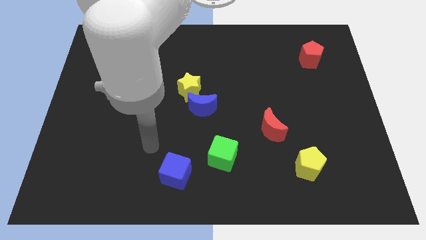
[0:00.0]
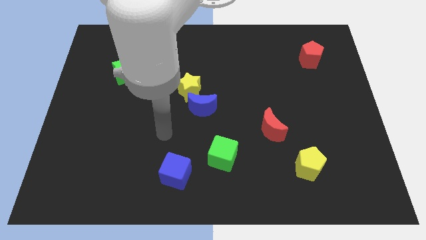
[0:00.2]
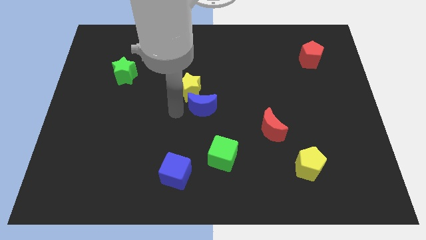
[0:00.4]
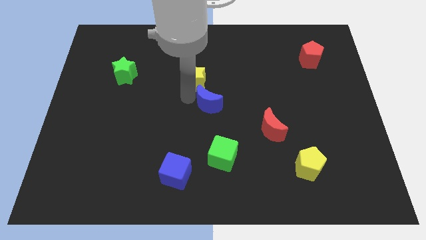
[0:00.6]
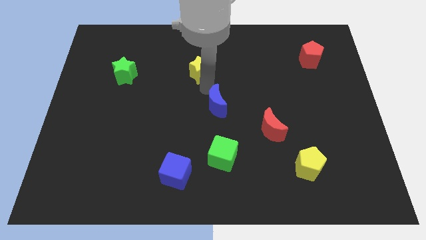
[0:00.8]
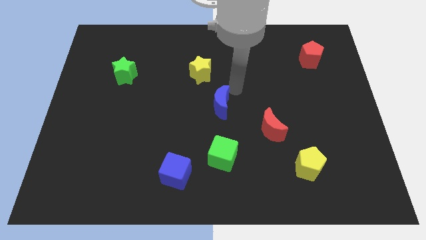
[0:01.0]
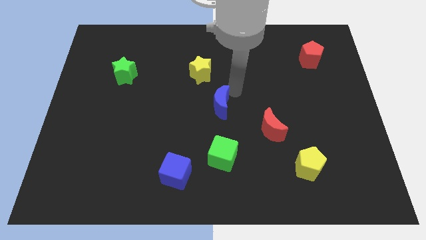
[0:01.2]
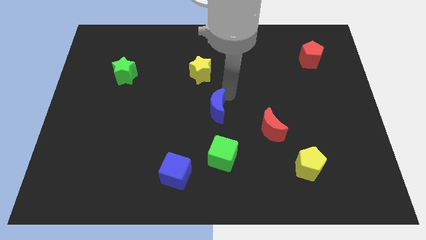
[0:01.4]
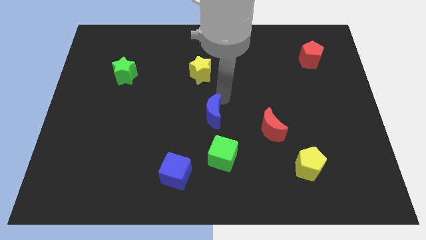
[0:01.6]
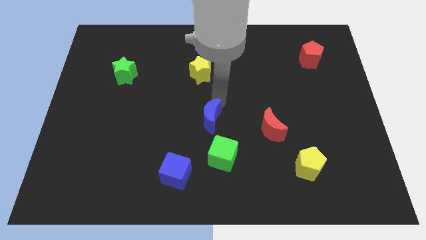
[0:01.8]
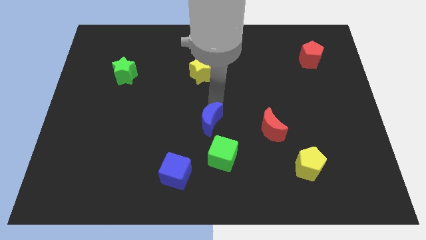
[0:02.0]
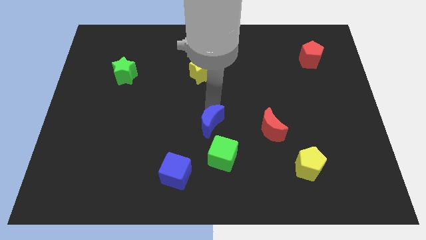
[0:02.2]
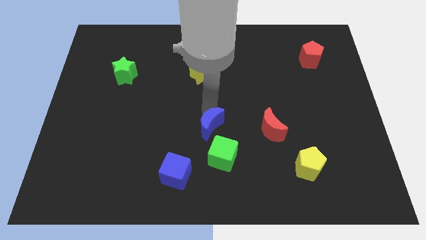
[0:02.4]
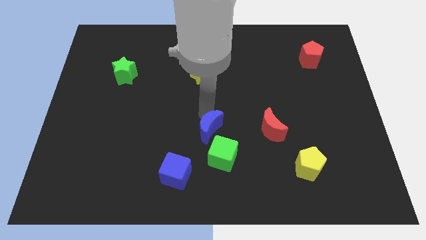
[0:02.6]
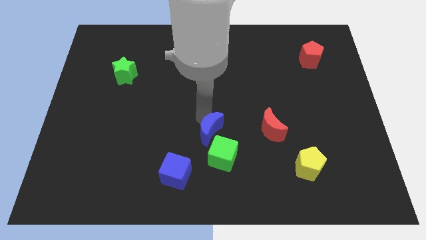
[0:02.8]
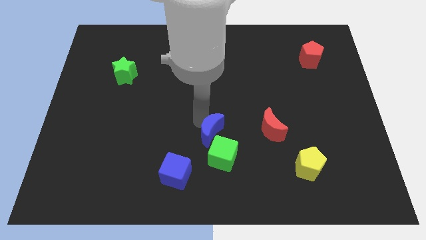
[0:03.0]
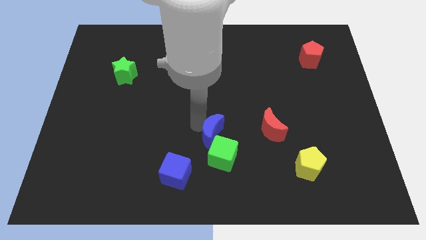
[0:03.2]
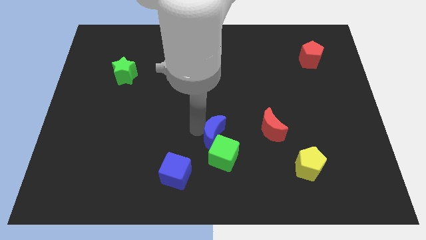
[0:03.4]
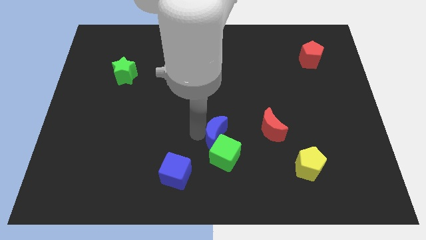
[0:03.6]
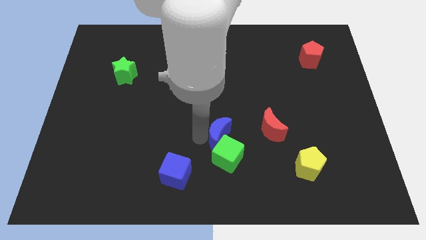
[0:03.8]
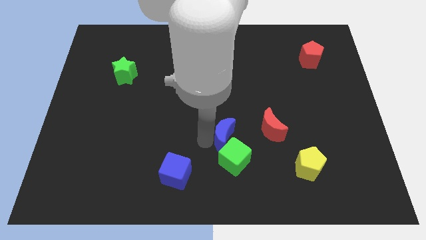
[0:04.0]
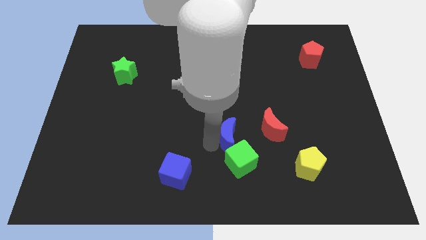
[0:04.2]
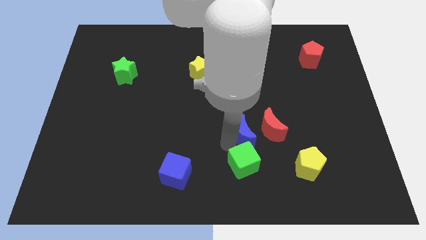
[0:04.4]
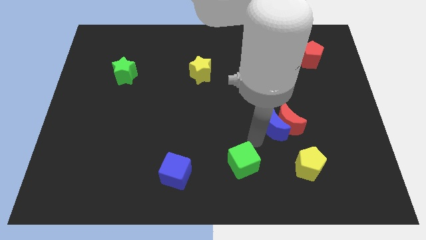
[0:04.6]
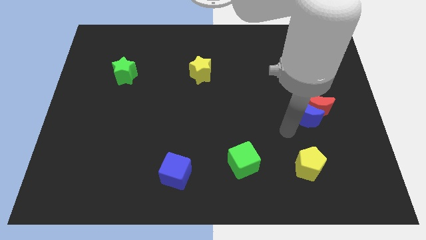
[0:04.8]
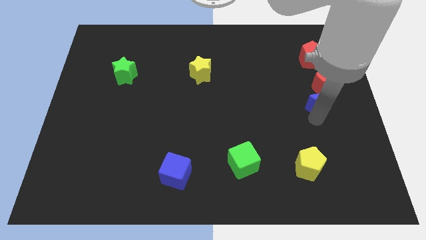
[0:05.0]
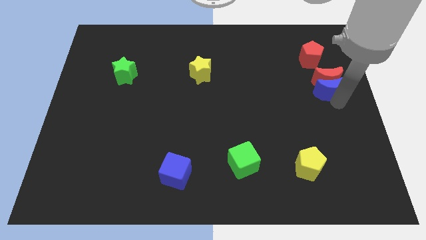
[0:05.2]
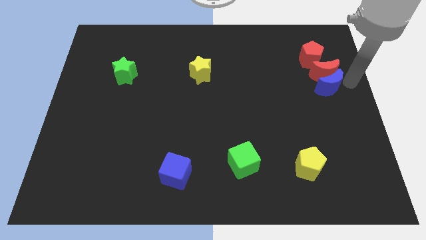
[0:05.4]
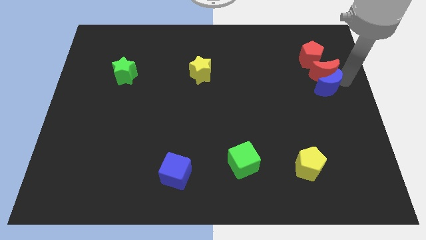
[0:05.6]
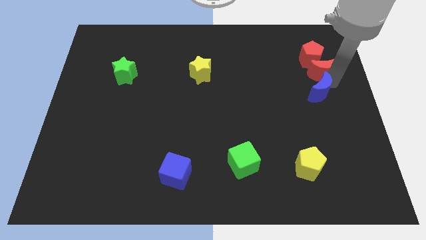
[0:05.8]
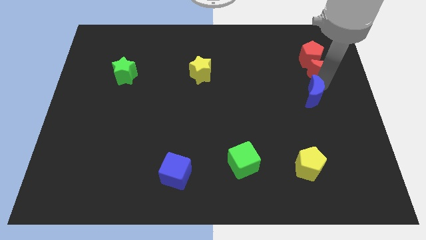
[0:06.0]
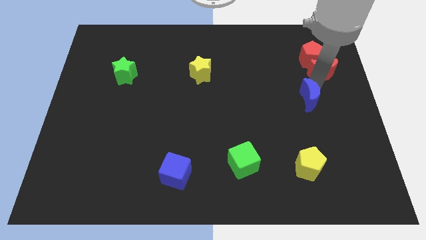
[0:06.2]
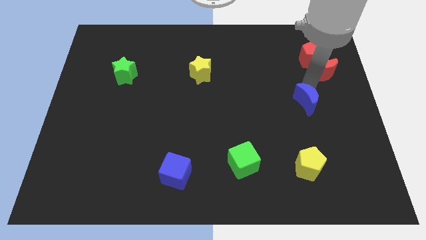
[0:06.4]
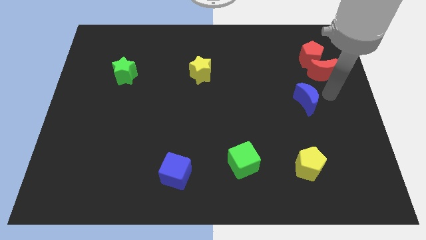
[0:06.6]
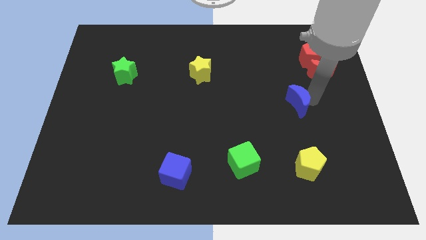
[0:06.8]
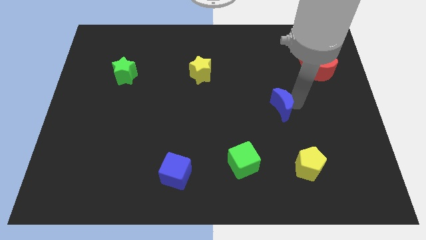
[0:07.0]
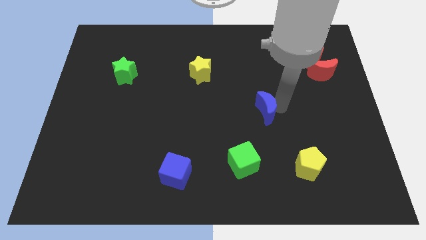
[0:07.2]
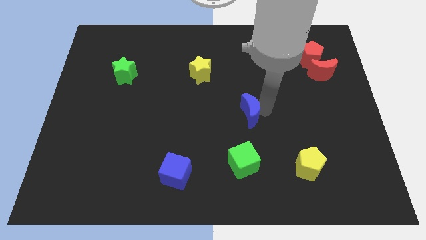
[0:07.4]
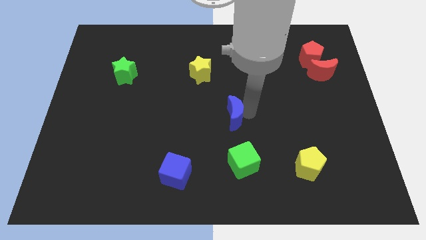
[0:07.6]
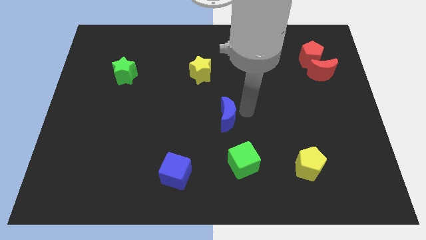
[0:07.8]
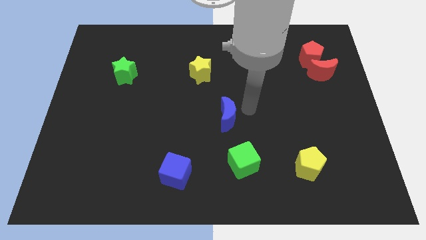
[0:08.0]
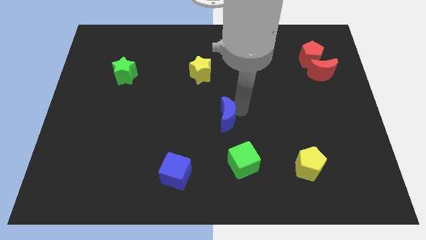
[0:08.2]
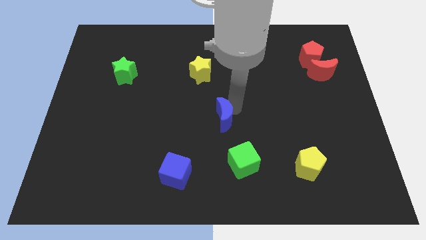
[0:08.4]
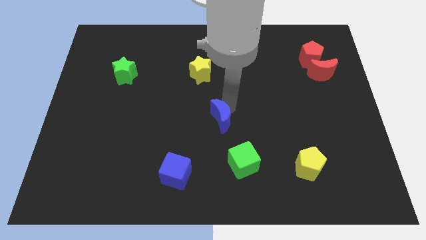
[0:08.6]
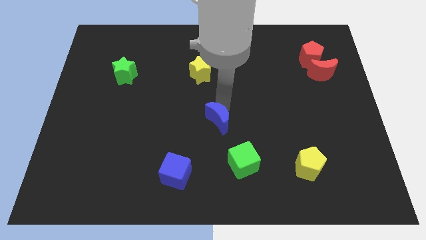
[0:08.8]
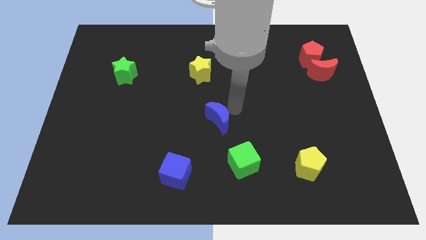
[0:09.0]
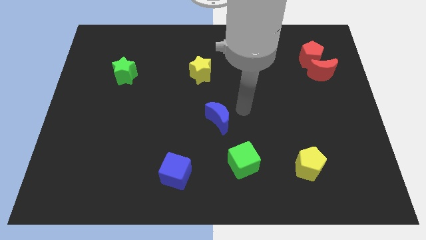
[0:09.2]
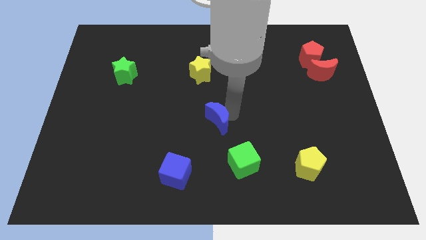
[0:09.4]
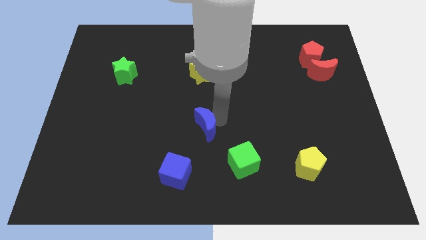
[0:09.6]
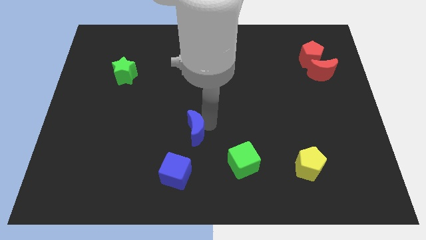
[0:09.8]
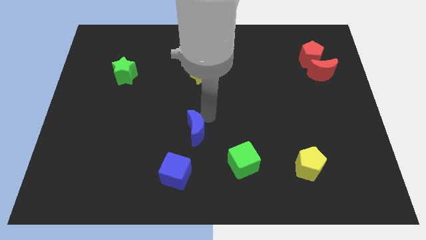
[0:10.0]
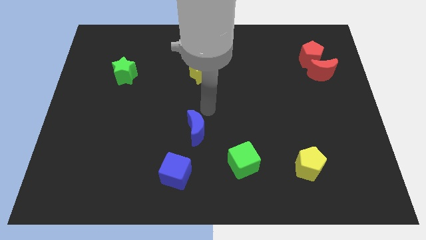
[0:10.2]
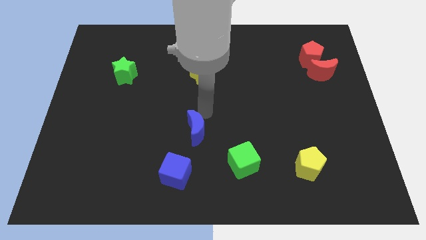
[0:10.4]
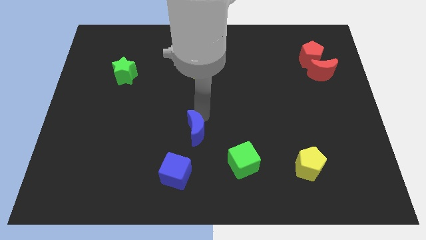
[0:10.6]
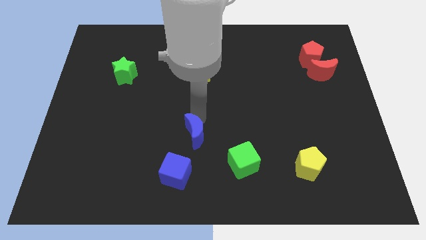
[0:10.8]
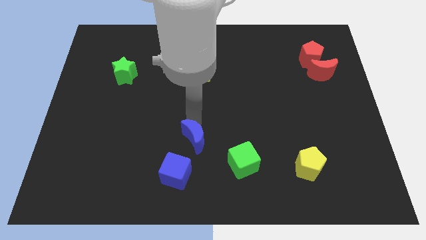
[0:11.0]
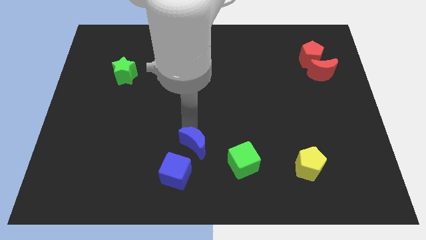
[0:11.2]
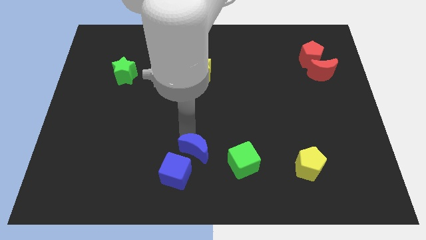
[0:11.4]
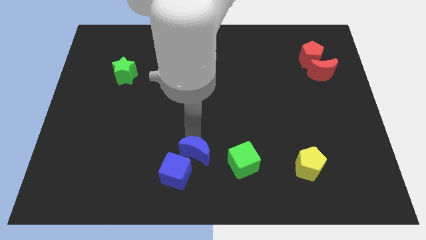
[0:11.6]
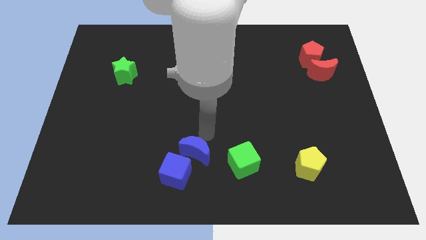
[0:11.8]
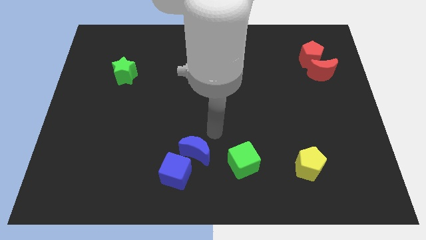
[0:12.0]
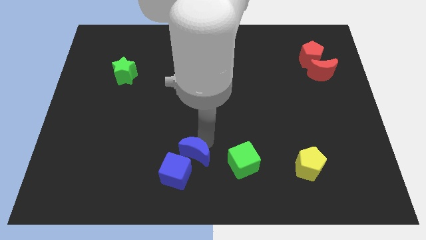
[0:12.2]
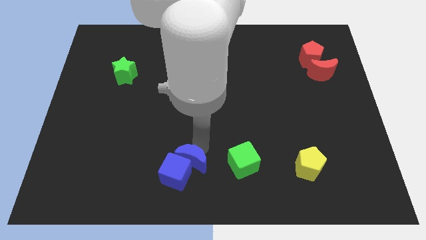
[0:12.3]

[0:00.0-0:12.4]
push the blue moon next to the blue cube

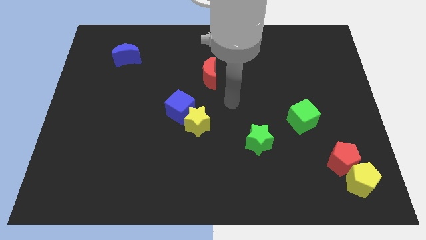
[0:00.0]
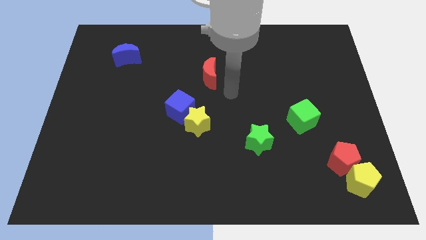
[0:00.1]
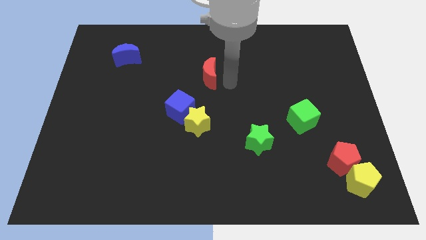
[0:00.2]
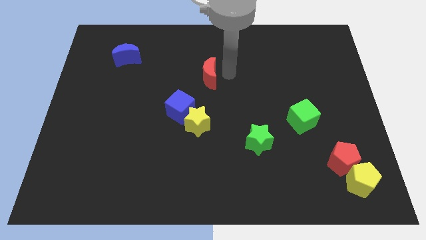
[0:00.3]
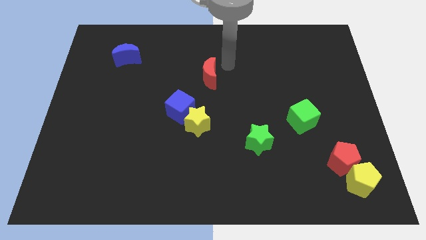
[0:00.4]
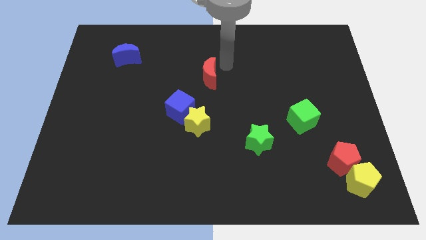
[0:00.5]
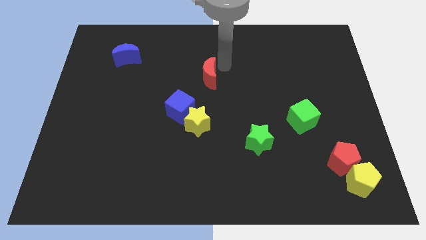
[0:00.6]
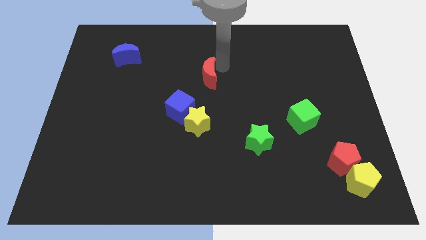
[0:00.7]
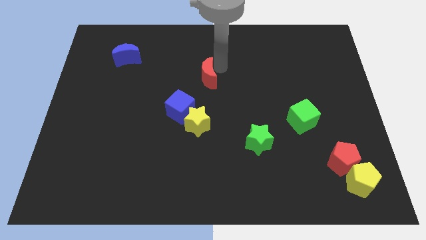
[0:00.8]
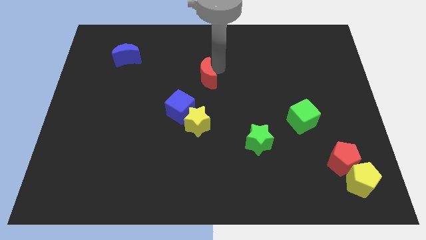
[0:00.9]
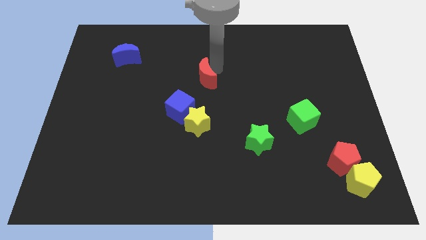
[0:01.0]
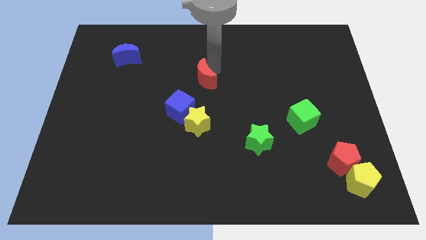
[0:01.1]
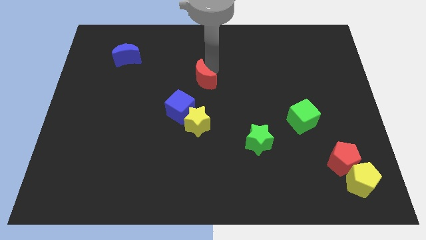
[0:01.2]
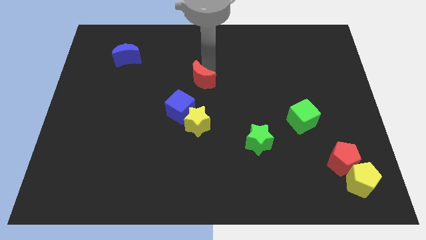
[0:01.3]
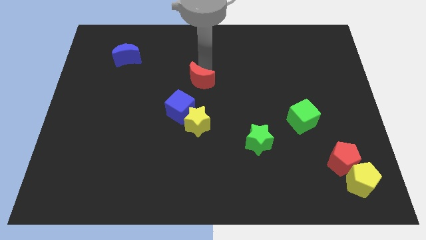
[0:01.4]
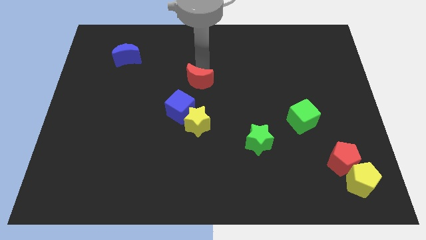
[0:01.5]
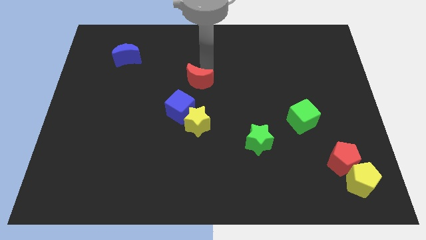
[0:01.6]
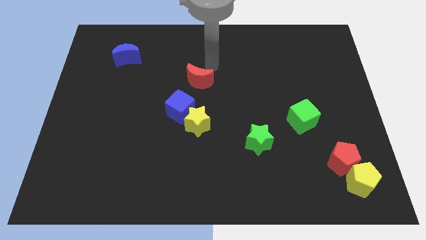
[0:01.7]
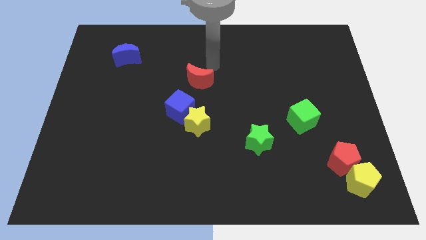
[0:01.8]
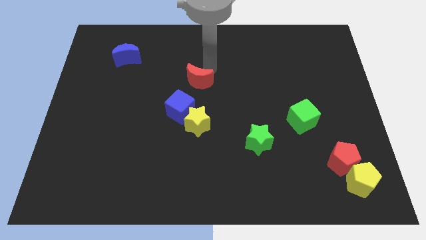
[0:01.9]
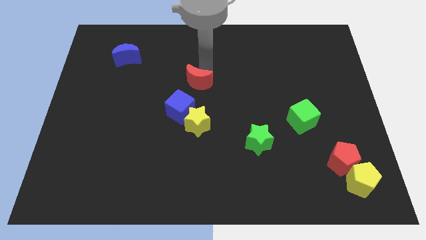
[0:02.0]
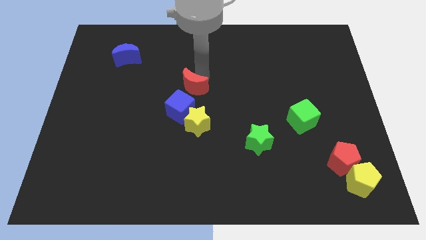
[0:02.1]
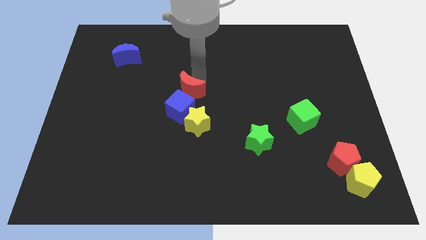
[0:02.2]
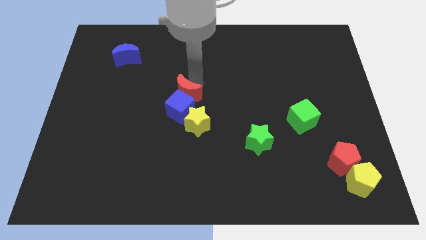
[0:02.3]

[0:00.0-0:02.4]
slide the red moon close to the blue cube
